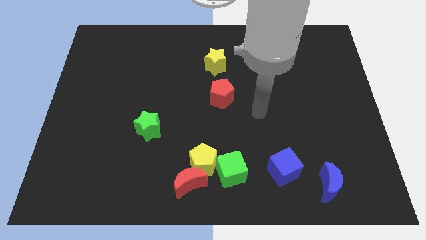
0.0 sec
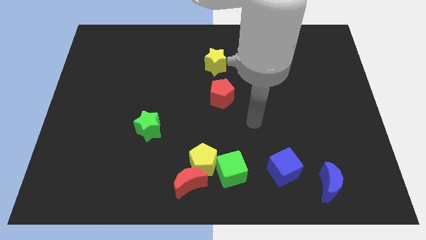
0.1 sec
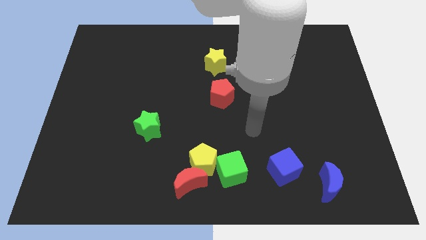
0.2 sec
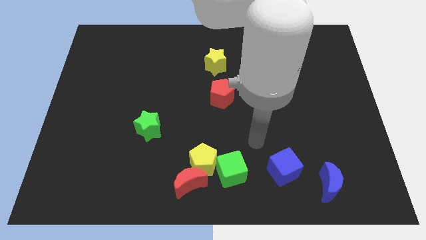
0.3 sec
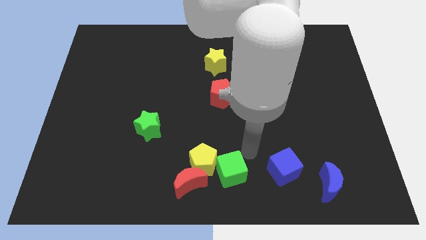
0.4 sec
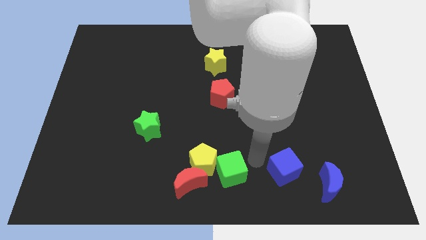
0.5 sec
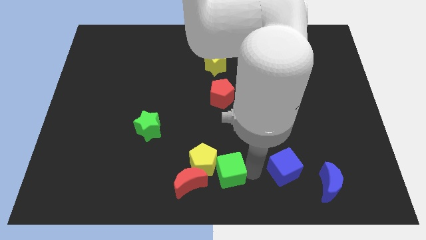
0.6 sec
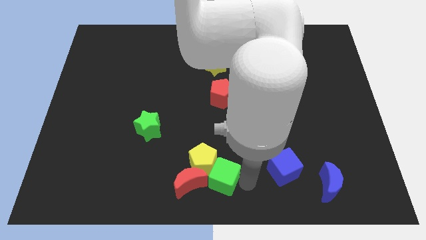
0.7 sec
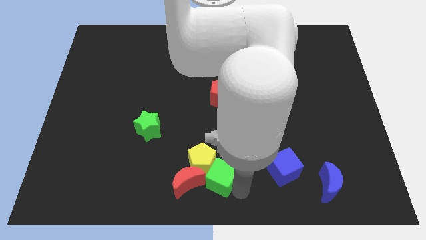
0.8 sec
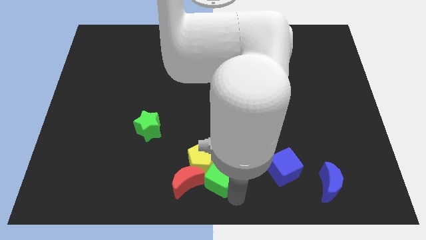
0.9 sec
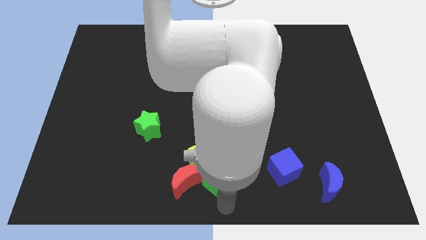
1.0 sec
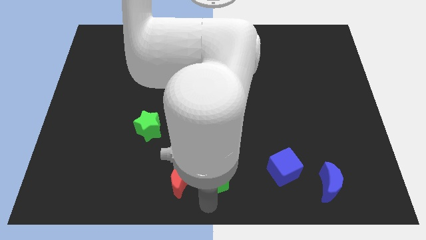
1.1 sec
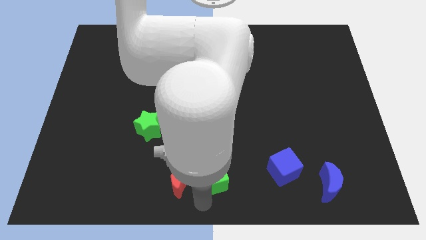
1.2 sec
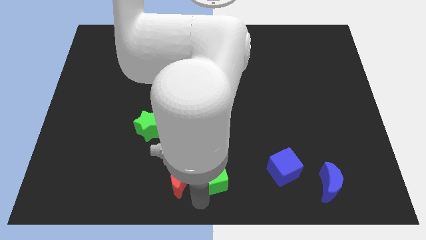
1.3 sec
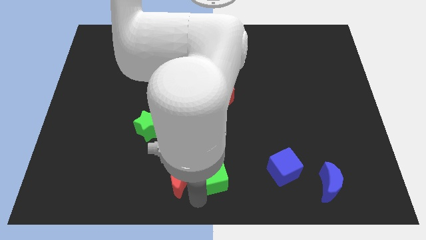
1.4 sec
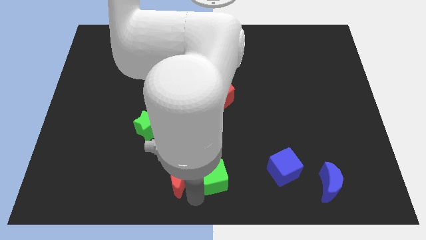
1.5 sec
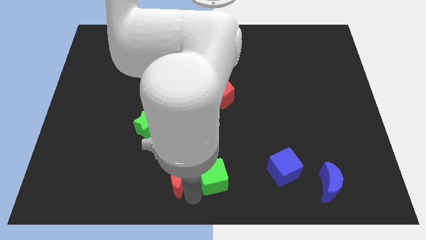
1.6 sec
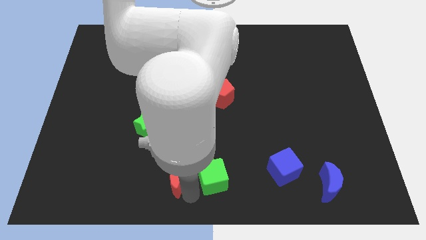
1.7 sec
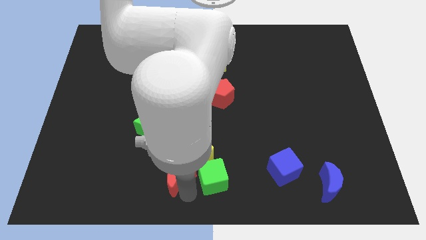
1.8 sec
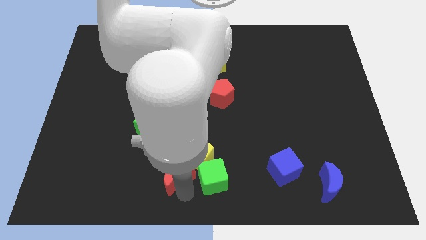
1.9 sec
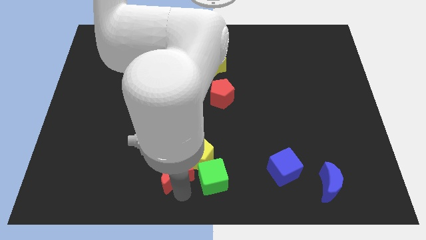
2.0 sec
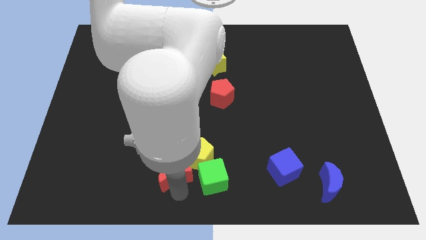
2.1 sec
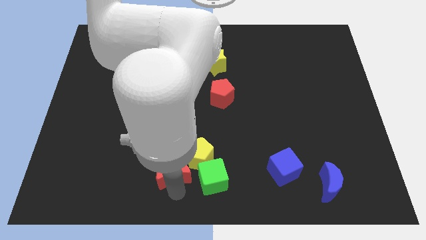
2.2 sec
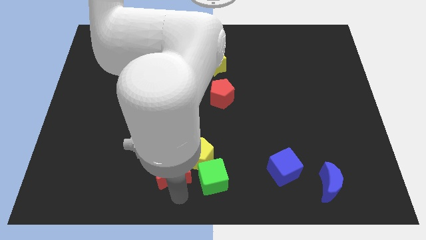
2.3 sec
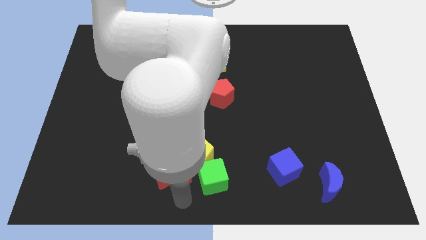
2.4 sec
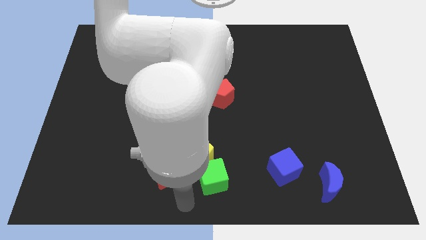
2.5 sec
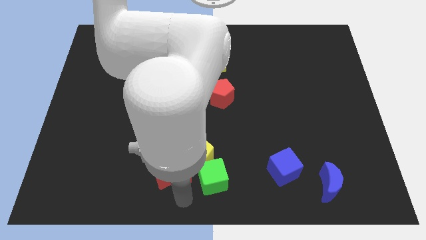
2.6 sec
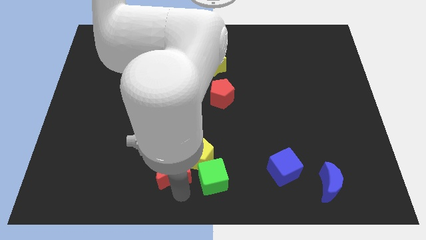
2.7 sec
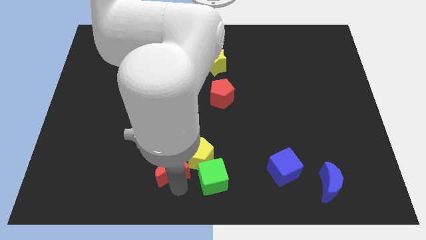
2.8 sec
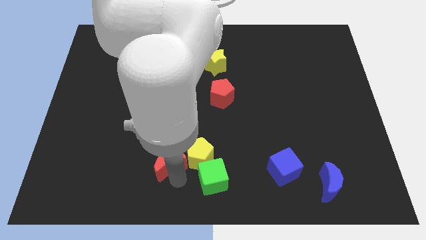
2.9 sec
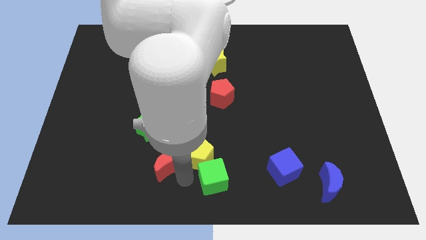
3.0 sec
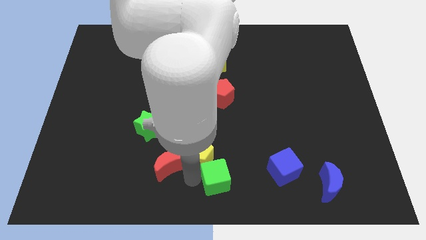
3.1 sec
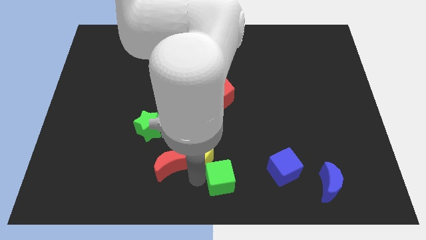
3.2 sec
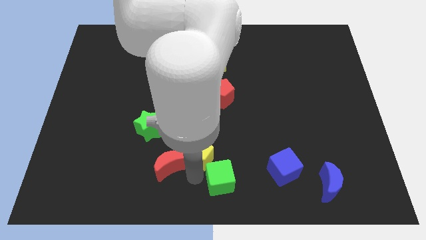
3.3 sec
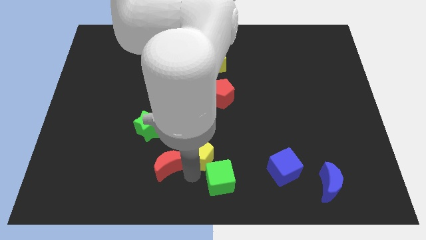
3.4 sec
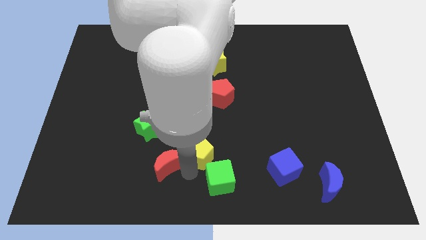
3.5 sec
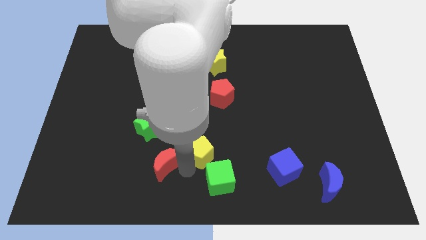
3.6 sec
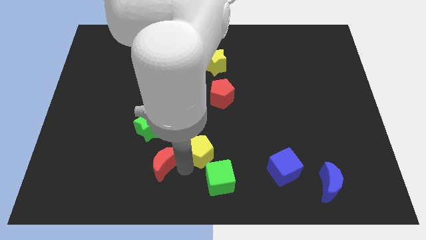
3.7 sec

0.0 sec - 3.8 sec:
slightly slide the red moon up and to the left diagonally

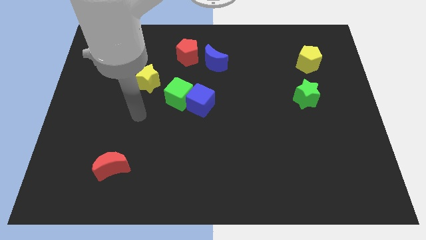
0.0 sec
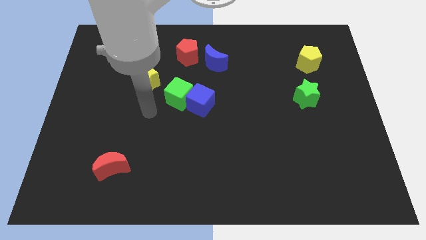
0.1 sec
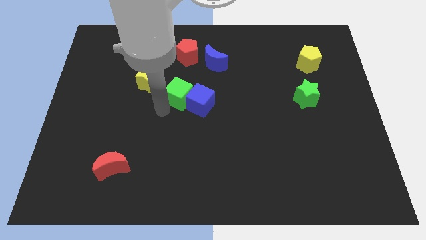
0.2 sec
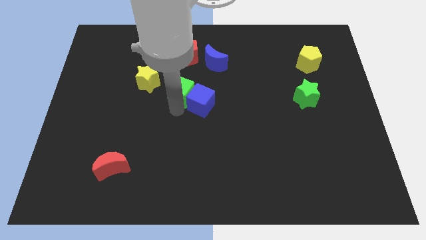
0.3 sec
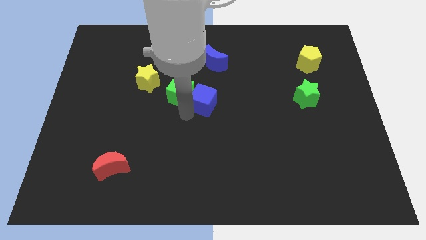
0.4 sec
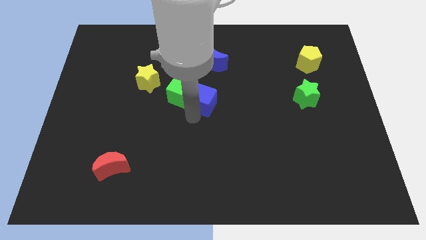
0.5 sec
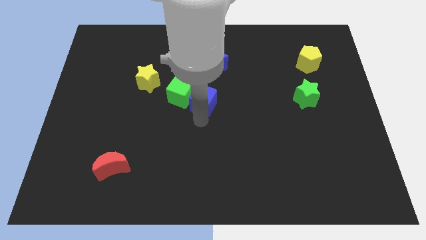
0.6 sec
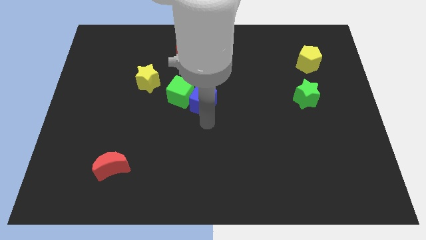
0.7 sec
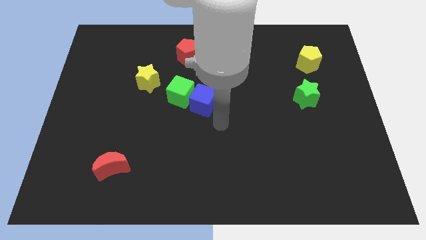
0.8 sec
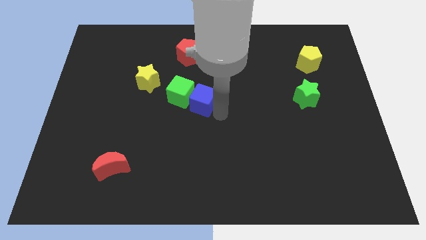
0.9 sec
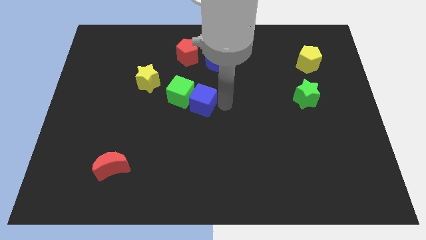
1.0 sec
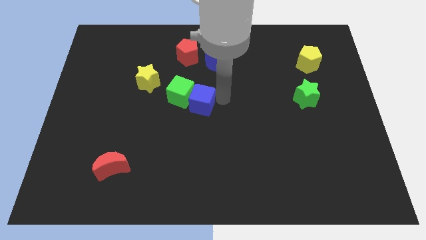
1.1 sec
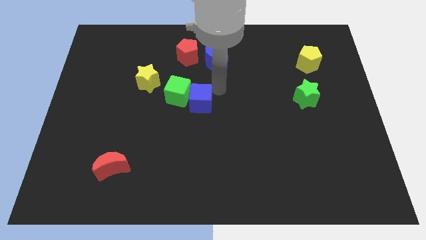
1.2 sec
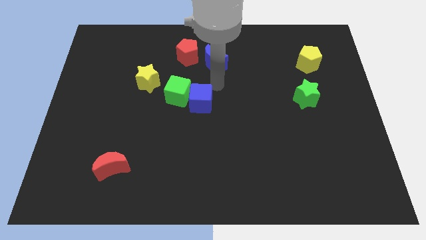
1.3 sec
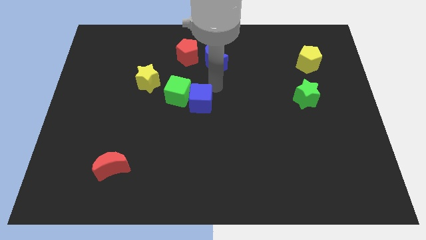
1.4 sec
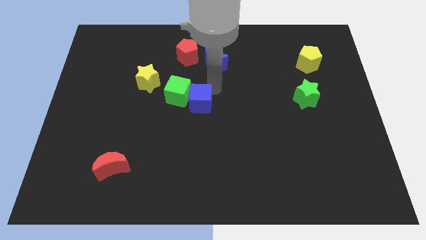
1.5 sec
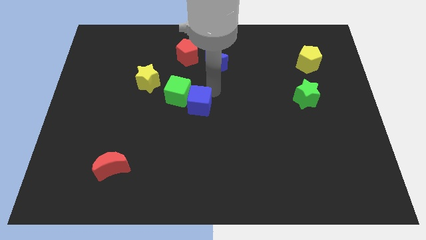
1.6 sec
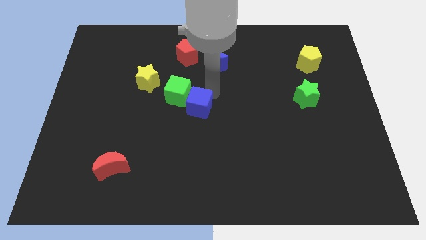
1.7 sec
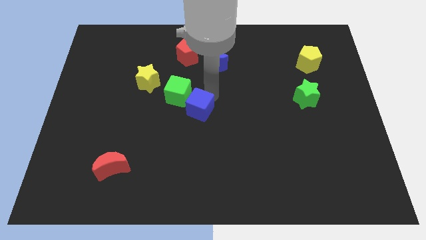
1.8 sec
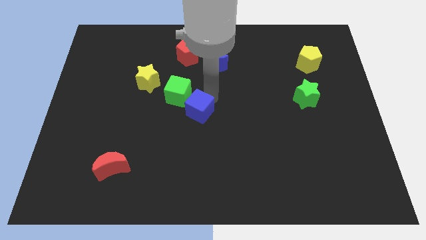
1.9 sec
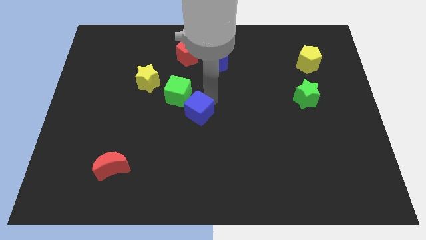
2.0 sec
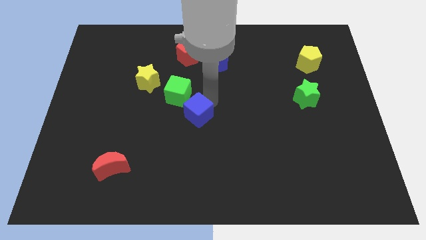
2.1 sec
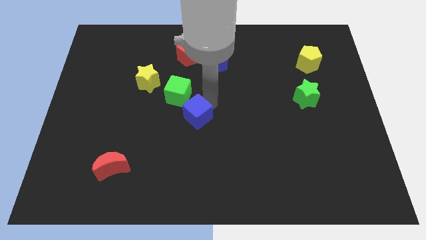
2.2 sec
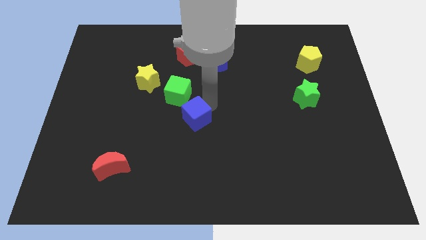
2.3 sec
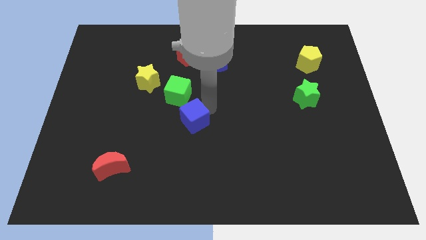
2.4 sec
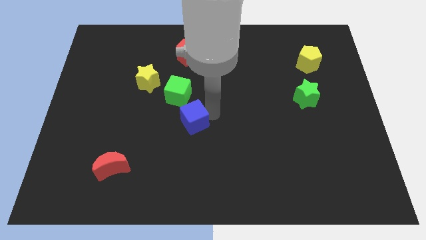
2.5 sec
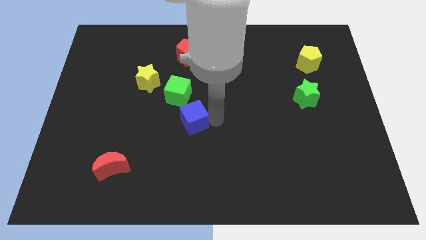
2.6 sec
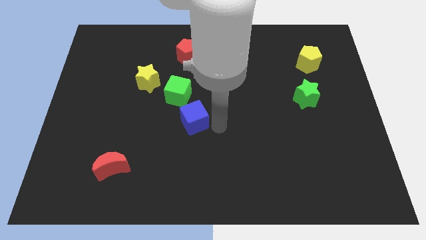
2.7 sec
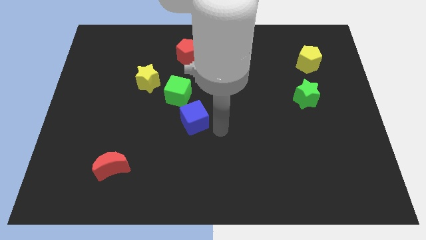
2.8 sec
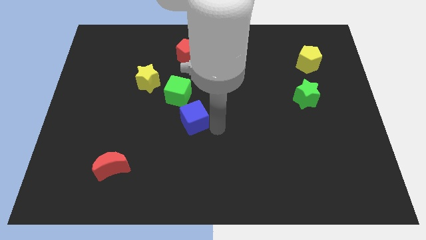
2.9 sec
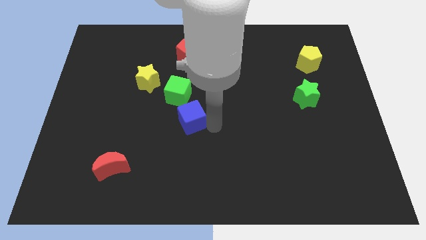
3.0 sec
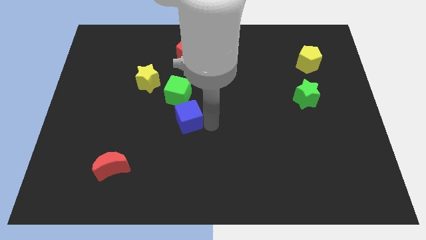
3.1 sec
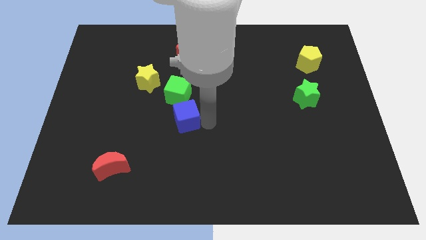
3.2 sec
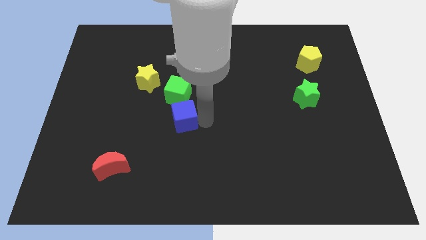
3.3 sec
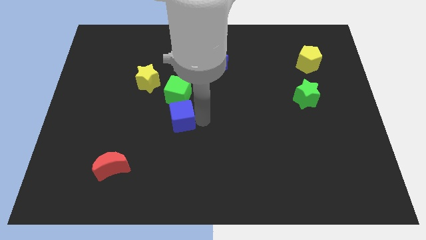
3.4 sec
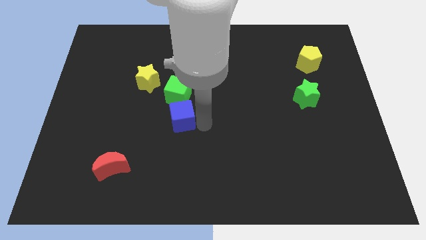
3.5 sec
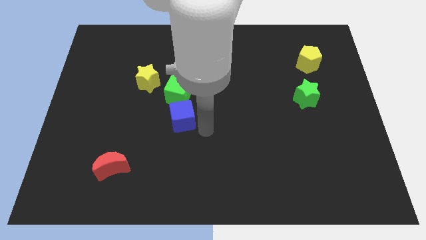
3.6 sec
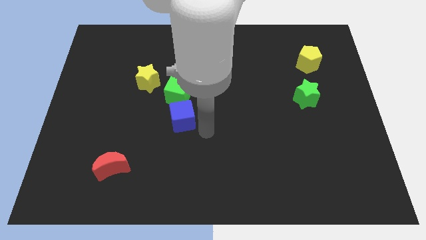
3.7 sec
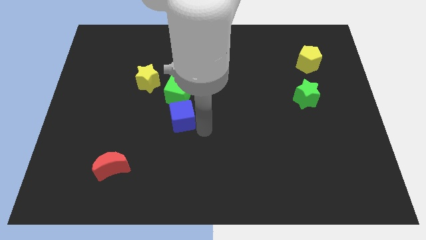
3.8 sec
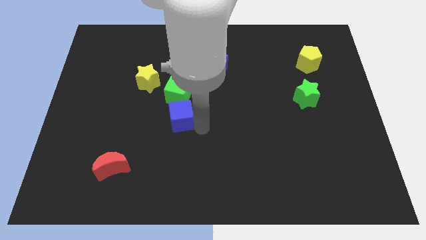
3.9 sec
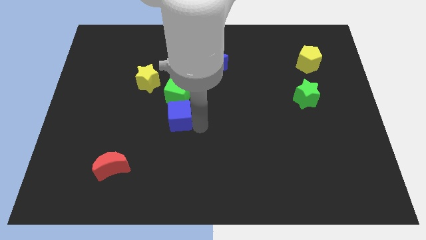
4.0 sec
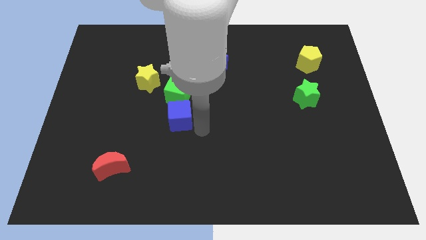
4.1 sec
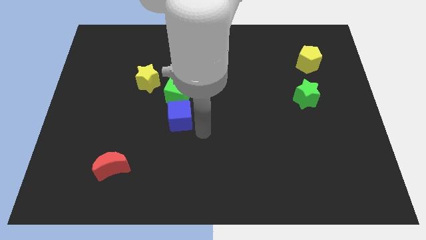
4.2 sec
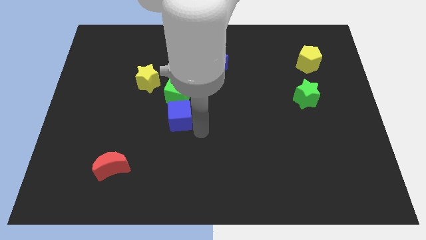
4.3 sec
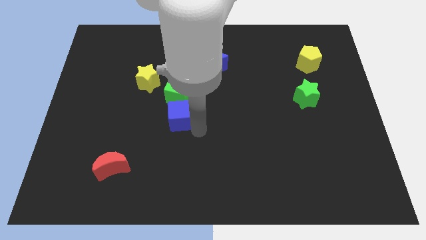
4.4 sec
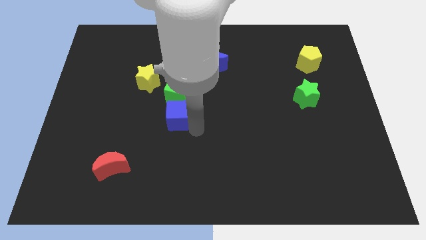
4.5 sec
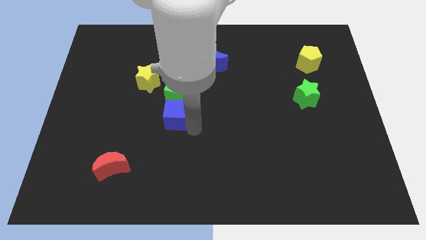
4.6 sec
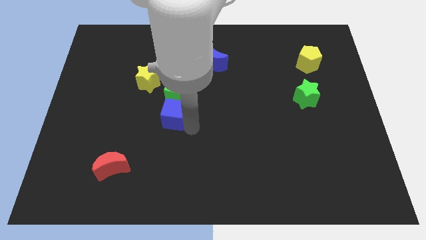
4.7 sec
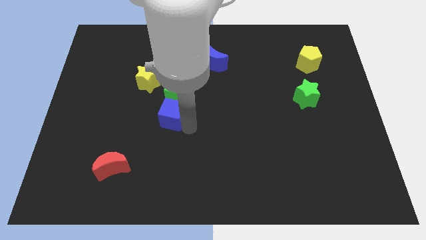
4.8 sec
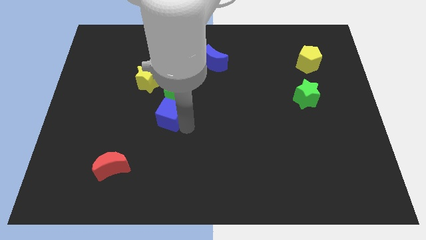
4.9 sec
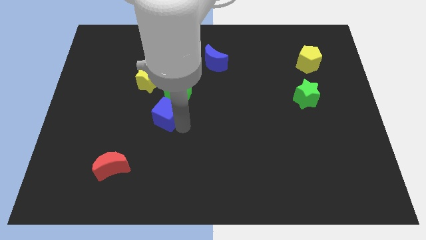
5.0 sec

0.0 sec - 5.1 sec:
slide the blue cube left a little
